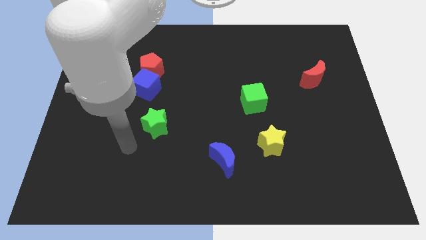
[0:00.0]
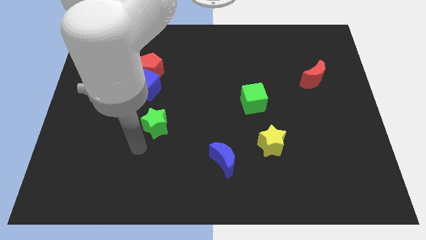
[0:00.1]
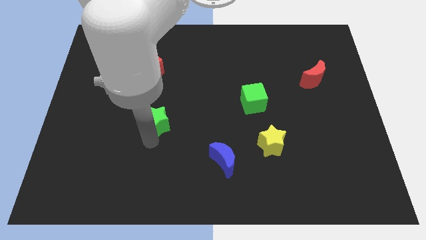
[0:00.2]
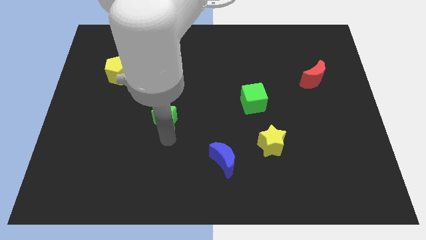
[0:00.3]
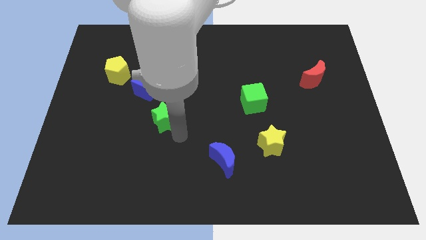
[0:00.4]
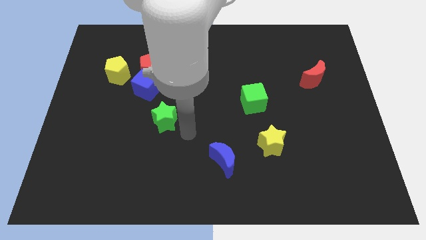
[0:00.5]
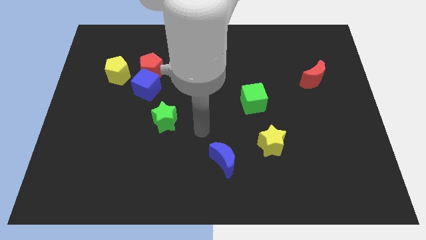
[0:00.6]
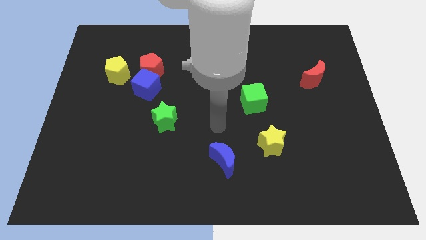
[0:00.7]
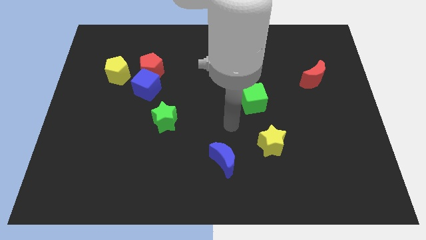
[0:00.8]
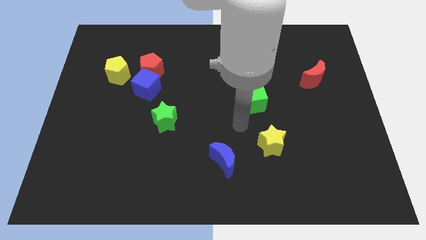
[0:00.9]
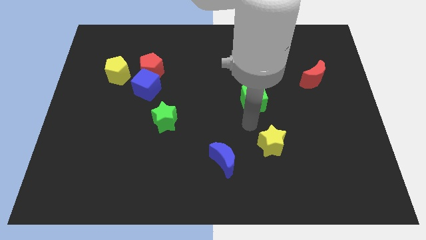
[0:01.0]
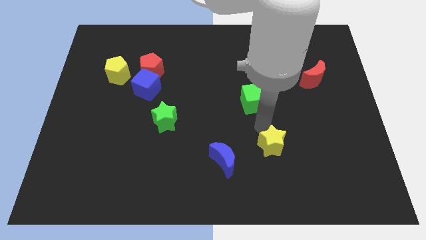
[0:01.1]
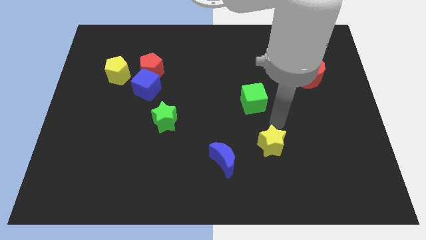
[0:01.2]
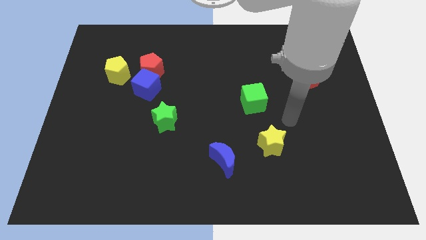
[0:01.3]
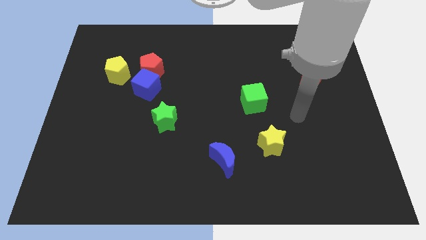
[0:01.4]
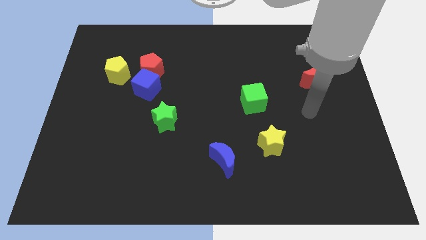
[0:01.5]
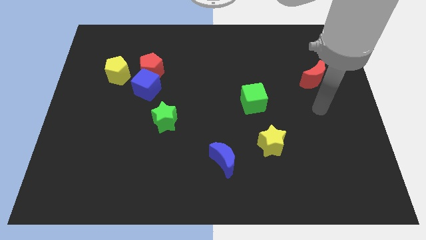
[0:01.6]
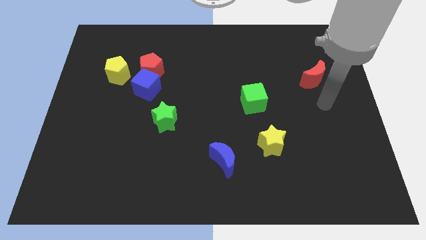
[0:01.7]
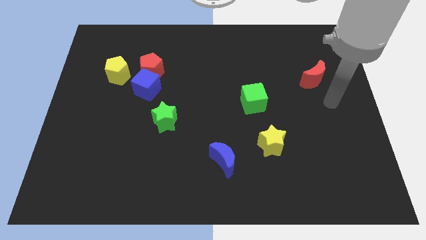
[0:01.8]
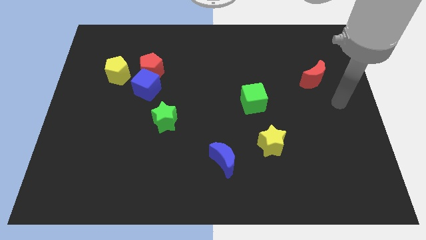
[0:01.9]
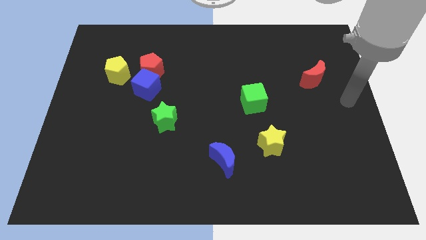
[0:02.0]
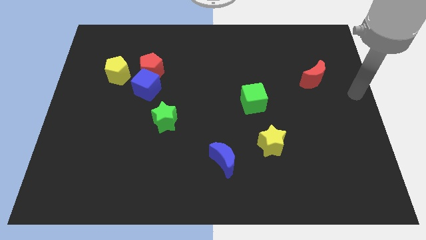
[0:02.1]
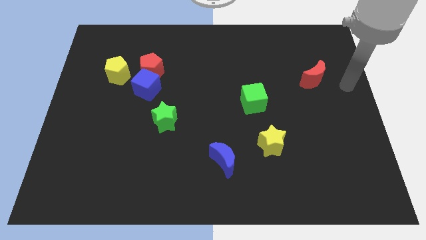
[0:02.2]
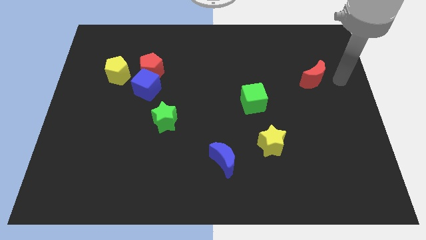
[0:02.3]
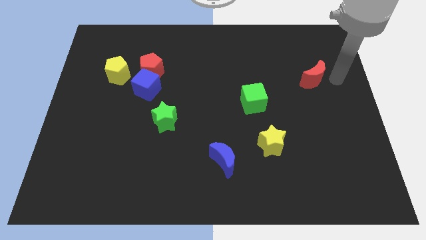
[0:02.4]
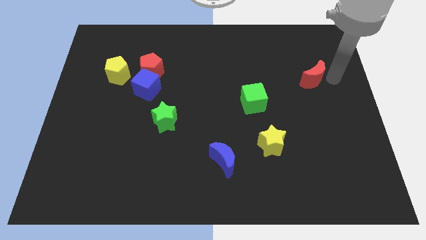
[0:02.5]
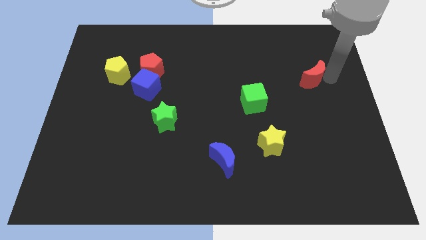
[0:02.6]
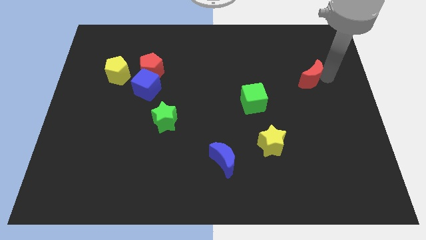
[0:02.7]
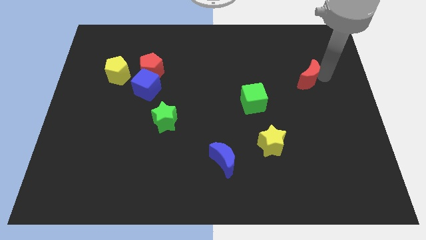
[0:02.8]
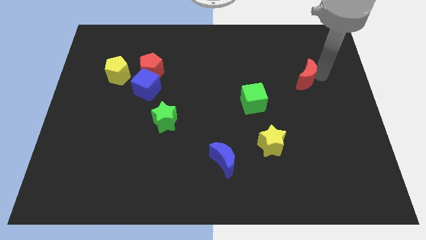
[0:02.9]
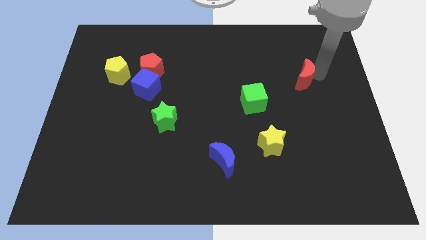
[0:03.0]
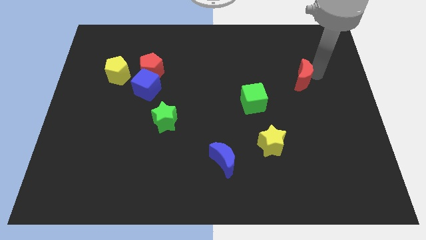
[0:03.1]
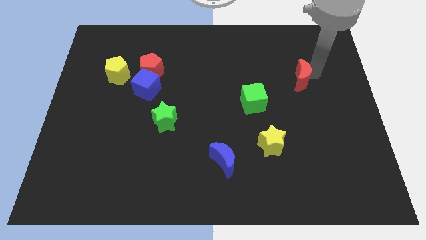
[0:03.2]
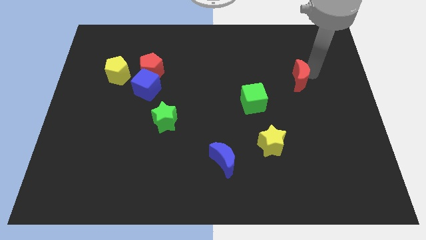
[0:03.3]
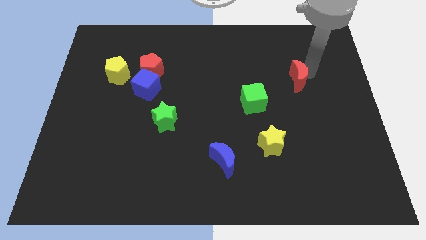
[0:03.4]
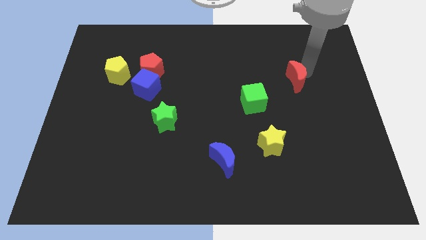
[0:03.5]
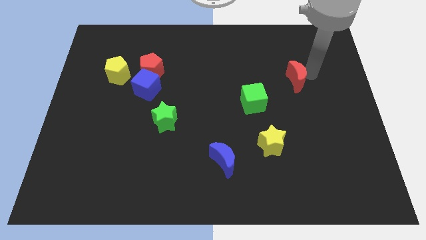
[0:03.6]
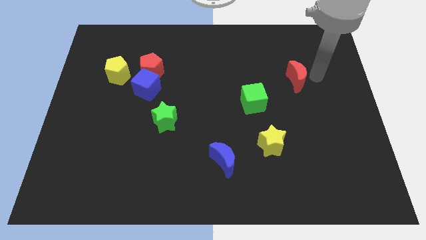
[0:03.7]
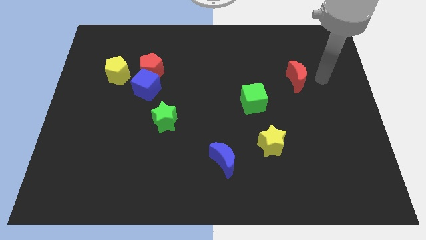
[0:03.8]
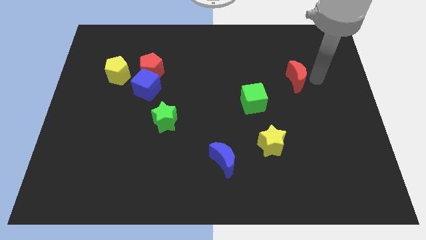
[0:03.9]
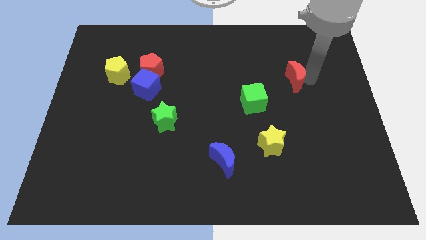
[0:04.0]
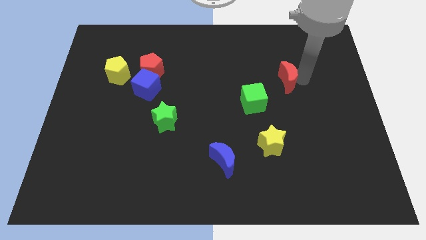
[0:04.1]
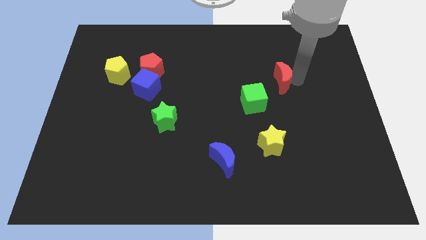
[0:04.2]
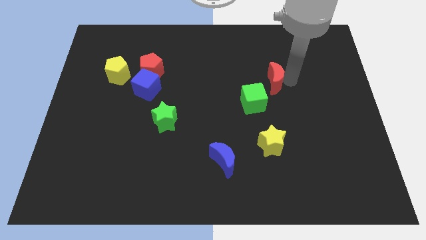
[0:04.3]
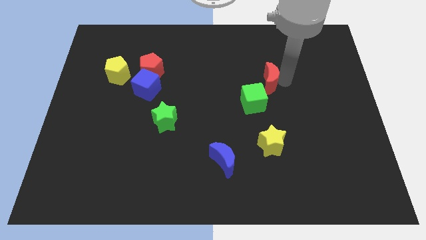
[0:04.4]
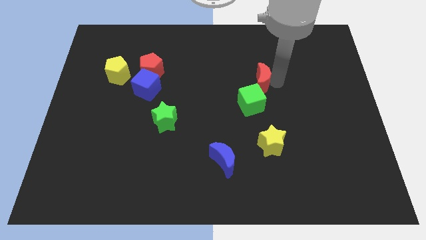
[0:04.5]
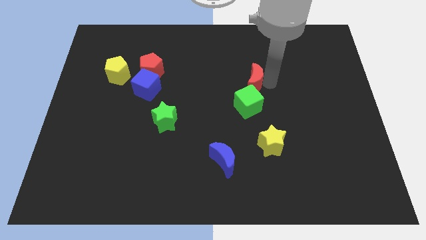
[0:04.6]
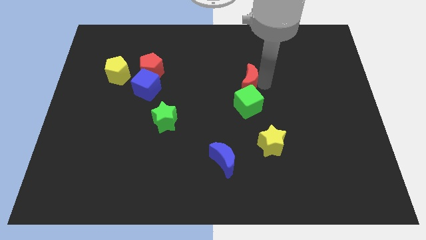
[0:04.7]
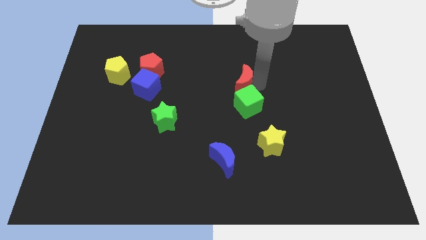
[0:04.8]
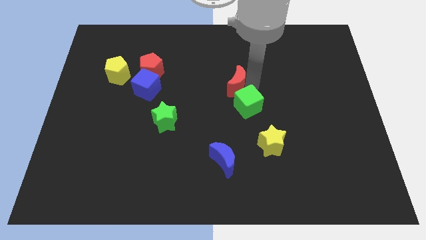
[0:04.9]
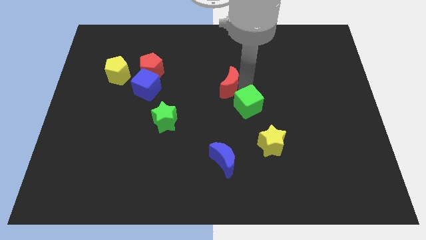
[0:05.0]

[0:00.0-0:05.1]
slide the red moon to the left

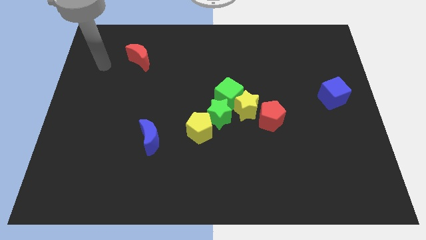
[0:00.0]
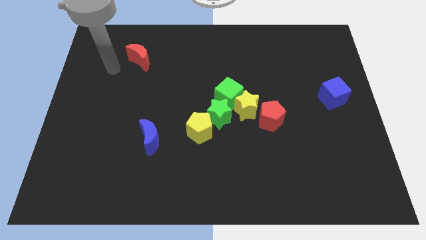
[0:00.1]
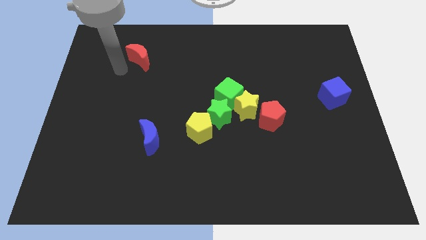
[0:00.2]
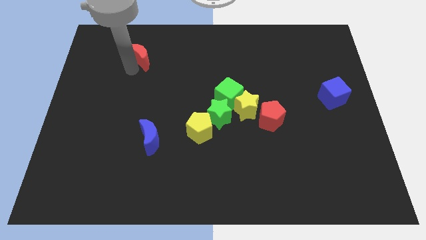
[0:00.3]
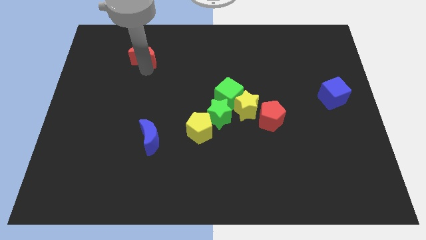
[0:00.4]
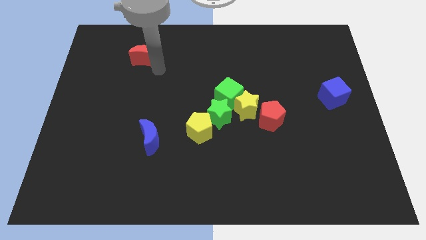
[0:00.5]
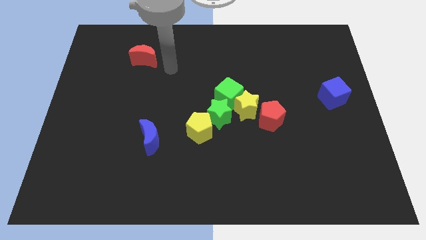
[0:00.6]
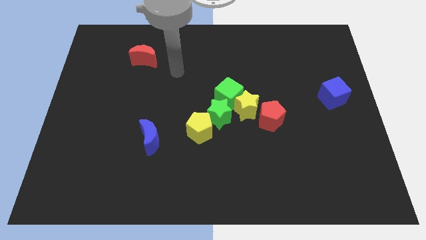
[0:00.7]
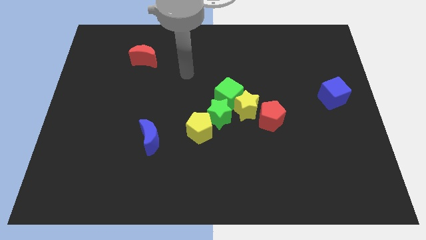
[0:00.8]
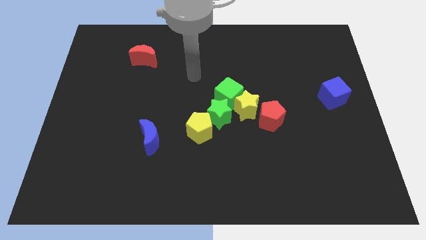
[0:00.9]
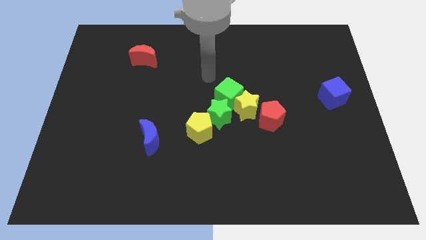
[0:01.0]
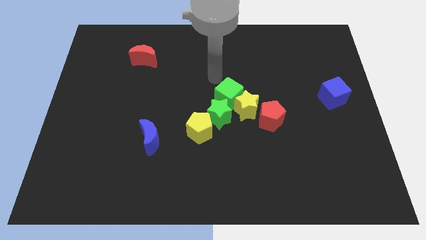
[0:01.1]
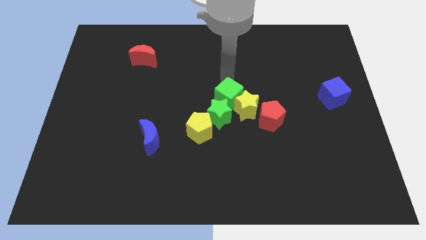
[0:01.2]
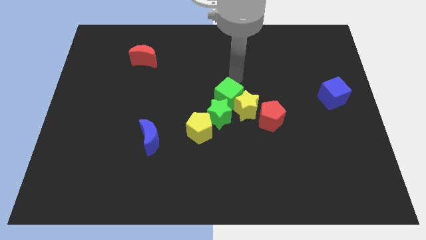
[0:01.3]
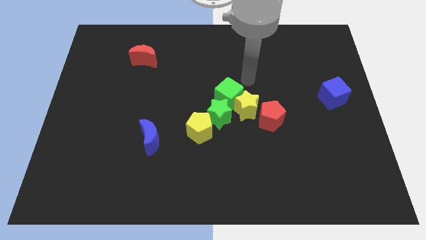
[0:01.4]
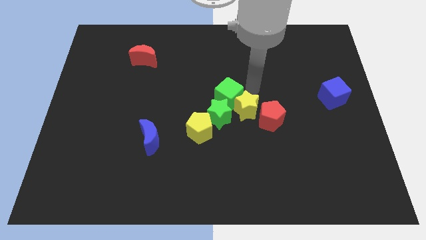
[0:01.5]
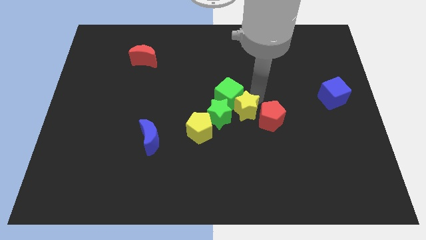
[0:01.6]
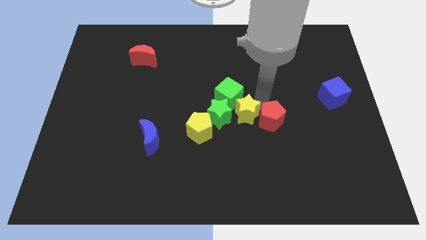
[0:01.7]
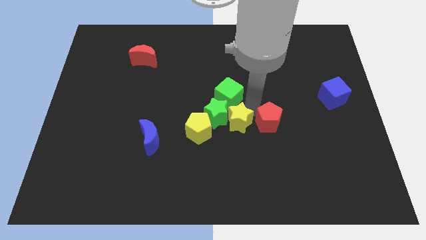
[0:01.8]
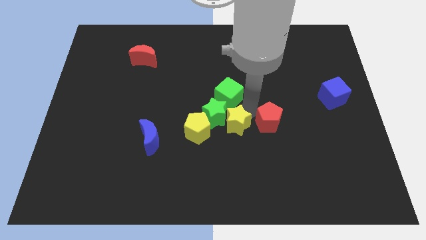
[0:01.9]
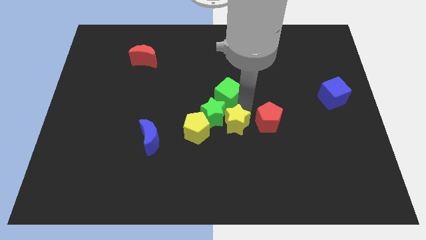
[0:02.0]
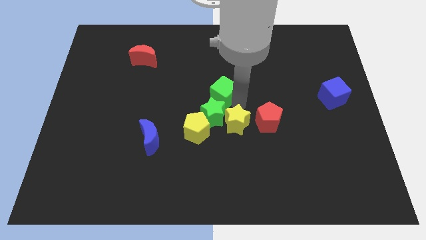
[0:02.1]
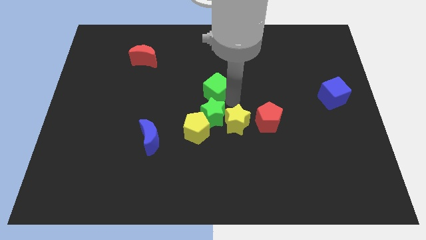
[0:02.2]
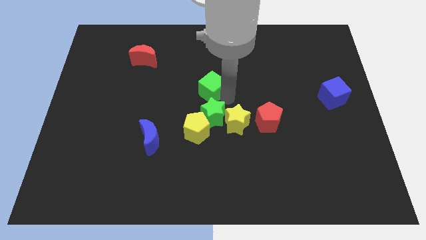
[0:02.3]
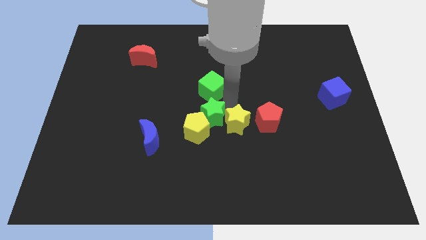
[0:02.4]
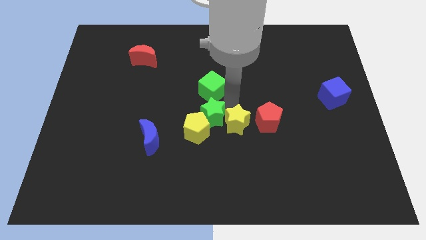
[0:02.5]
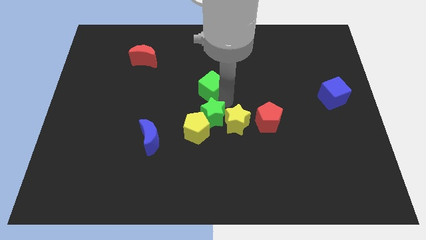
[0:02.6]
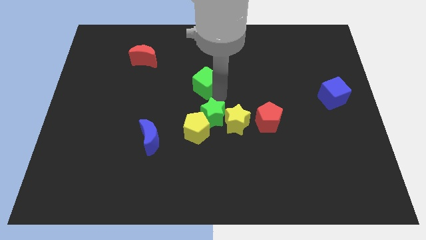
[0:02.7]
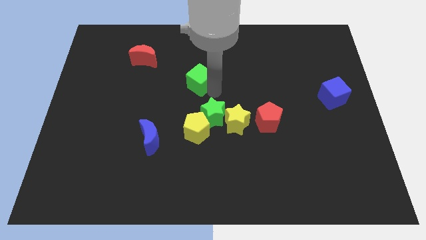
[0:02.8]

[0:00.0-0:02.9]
push the green cube up and then to the left a little bit
